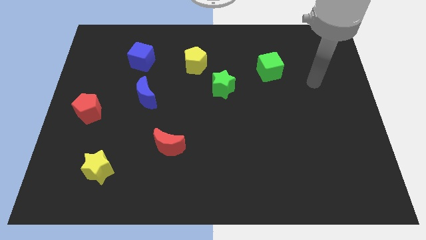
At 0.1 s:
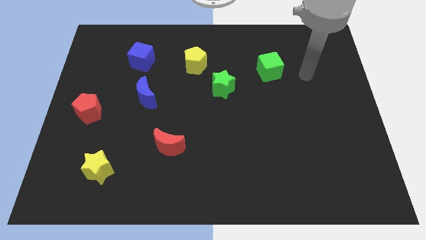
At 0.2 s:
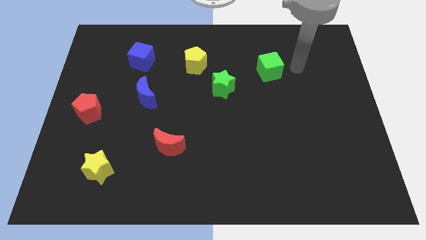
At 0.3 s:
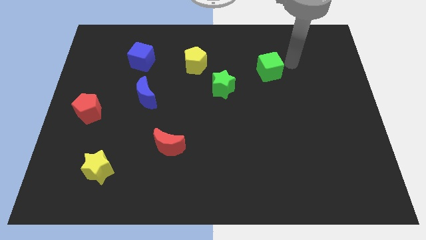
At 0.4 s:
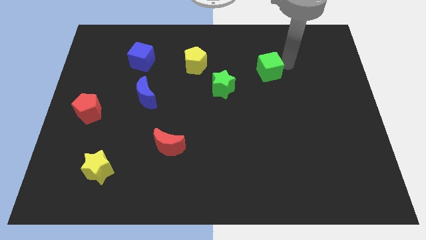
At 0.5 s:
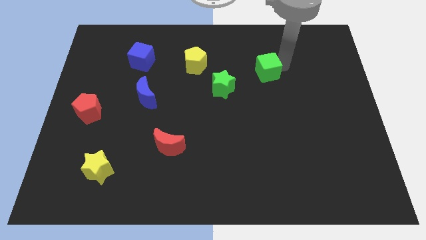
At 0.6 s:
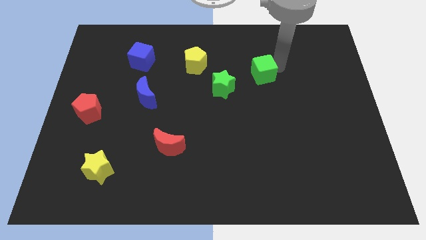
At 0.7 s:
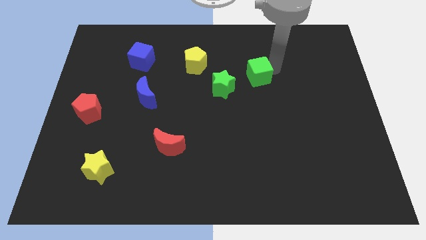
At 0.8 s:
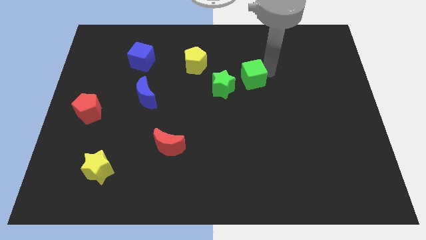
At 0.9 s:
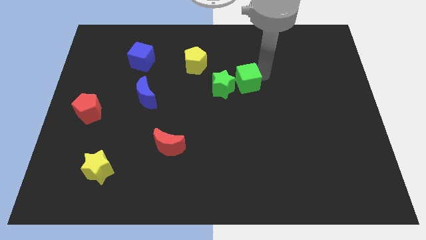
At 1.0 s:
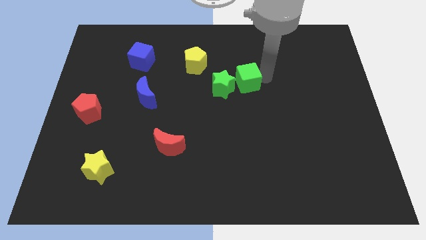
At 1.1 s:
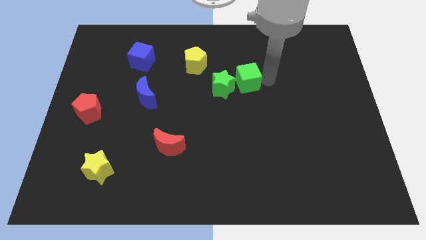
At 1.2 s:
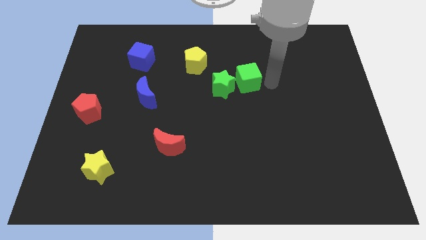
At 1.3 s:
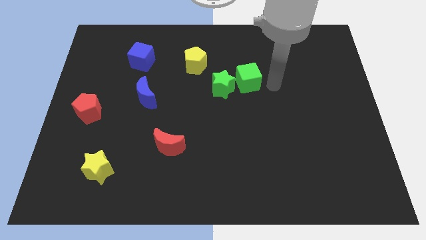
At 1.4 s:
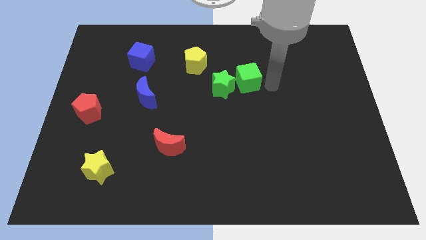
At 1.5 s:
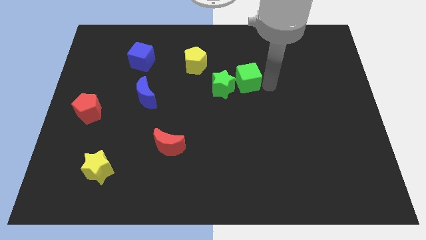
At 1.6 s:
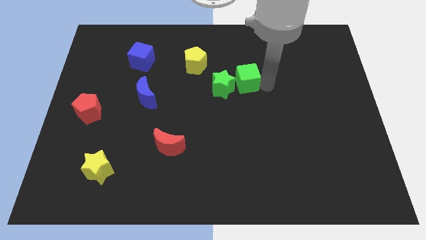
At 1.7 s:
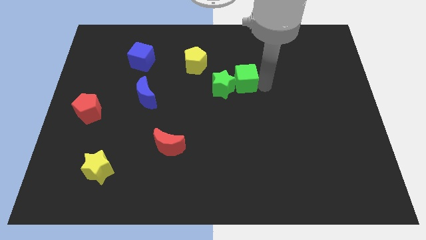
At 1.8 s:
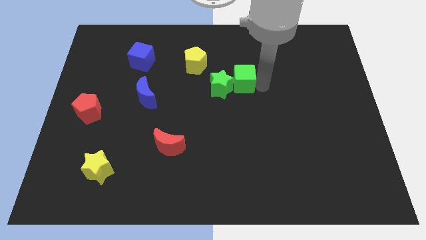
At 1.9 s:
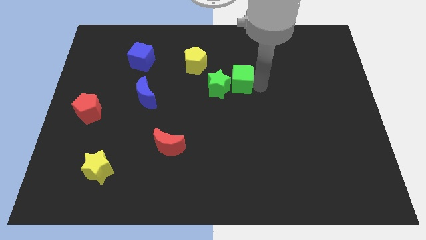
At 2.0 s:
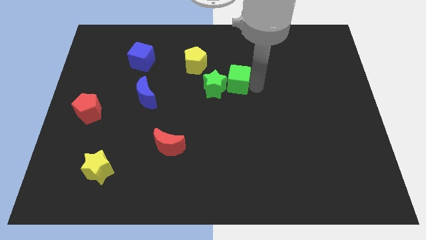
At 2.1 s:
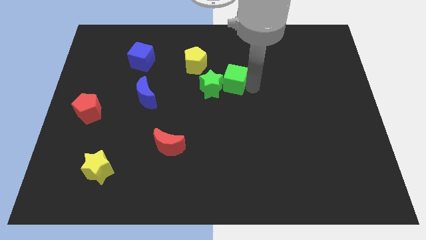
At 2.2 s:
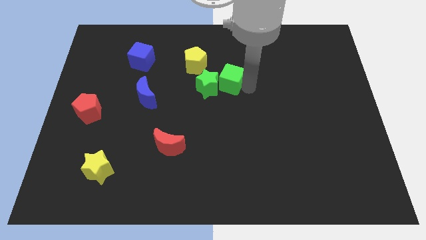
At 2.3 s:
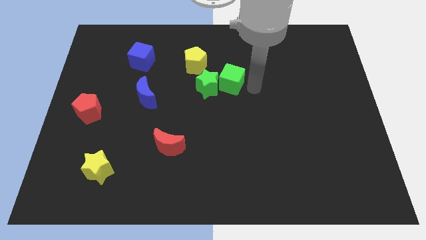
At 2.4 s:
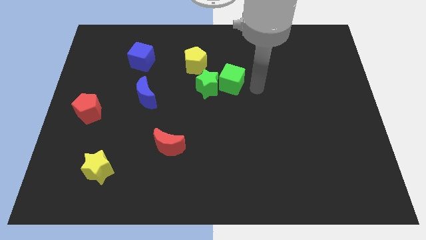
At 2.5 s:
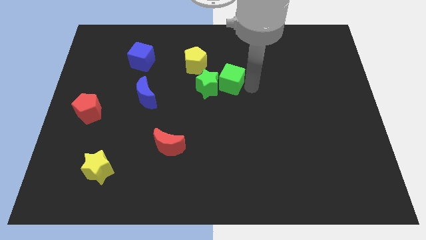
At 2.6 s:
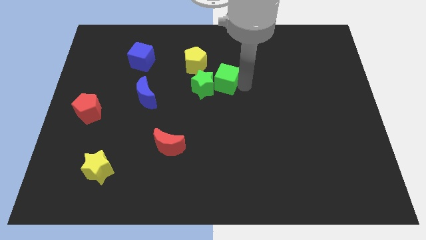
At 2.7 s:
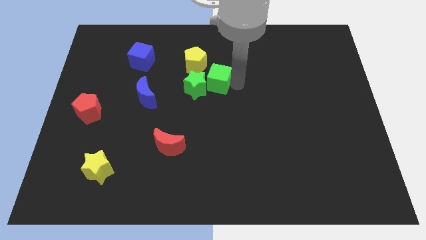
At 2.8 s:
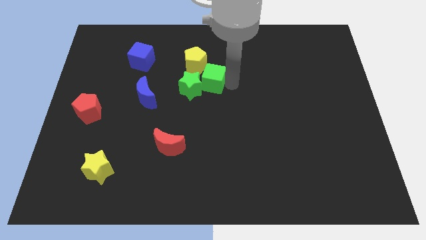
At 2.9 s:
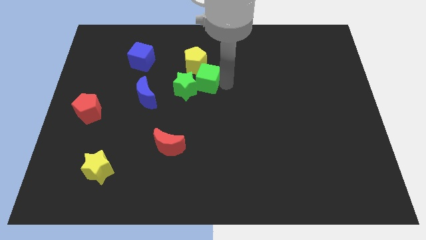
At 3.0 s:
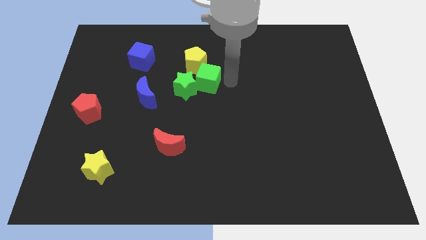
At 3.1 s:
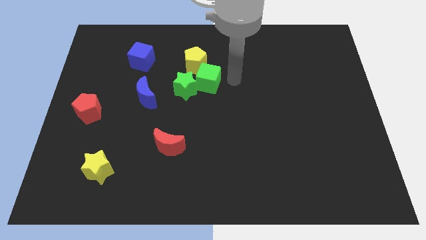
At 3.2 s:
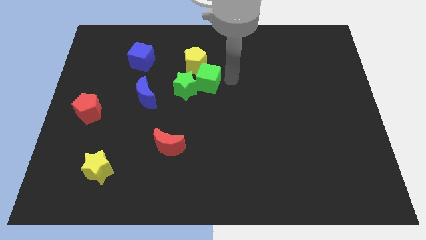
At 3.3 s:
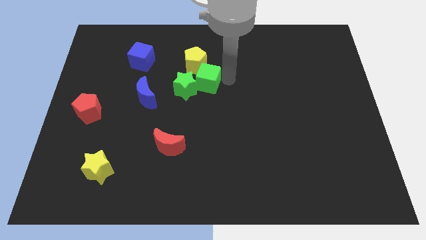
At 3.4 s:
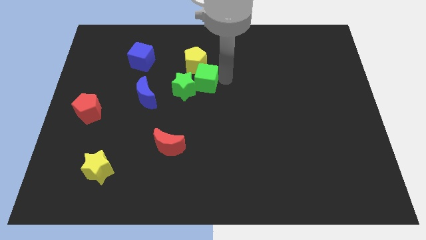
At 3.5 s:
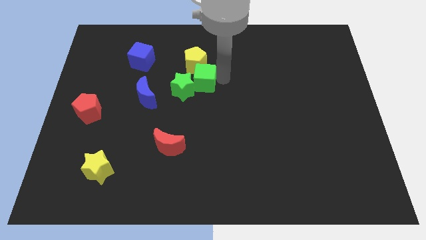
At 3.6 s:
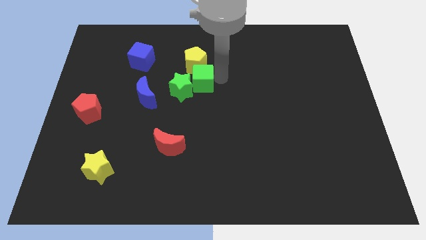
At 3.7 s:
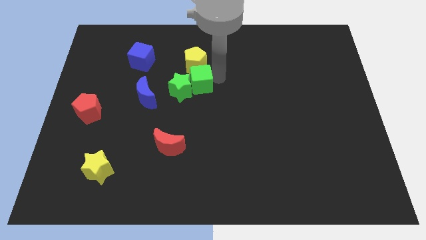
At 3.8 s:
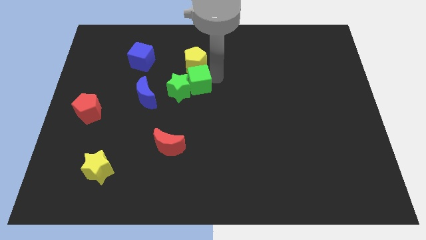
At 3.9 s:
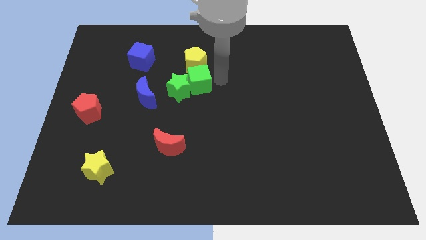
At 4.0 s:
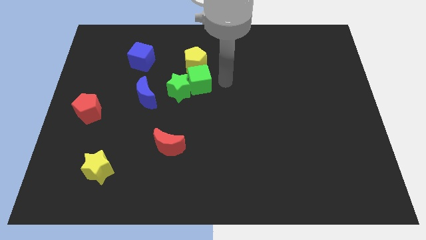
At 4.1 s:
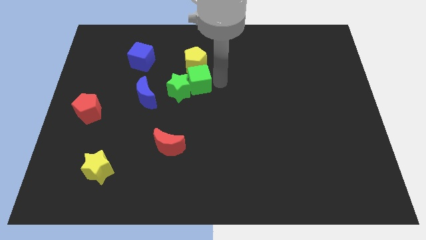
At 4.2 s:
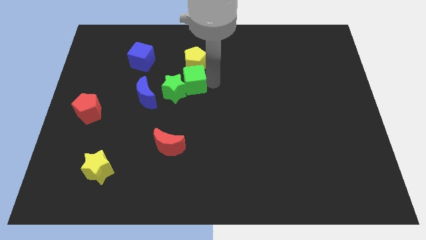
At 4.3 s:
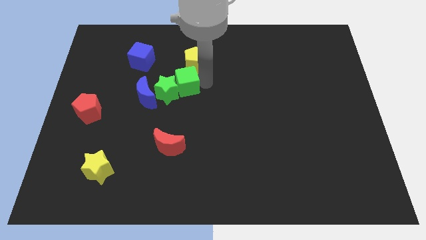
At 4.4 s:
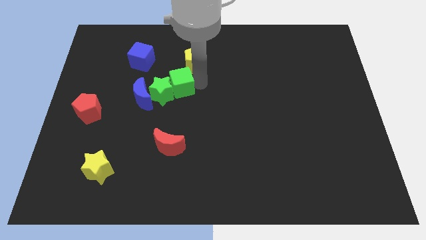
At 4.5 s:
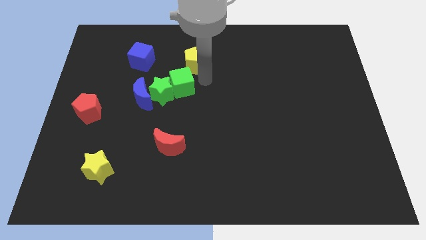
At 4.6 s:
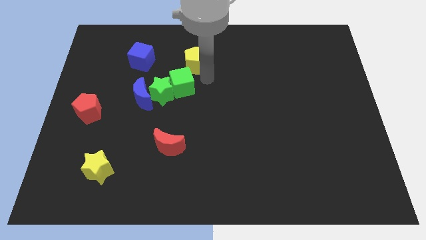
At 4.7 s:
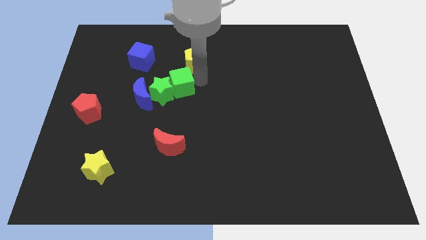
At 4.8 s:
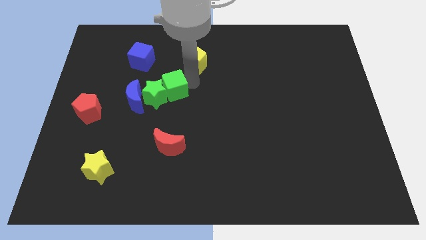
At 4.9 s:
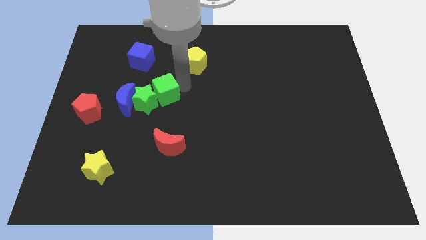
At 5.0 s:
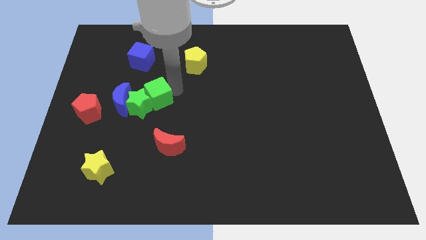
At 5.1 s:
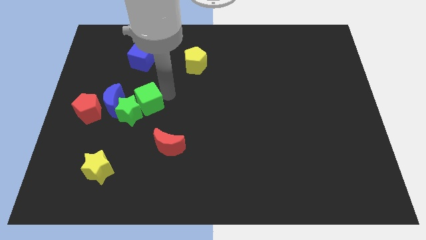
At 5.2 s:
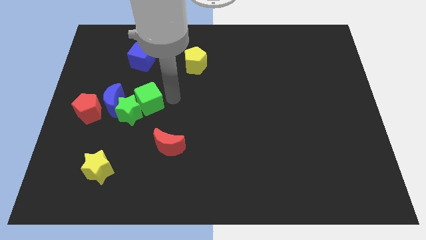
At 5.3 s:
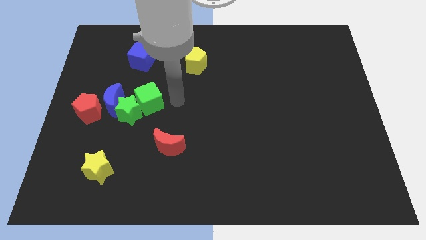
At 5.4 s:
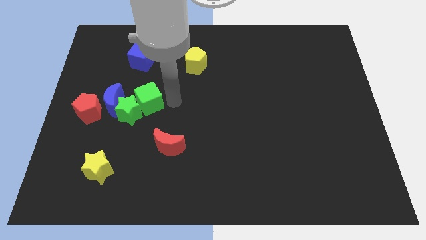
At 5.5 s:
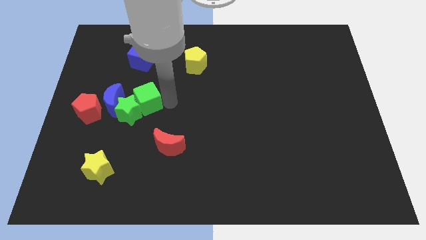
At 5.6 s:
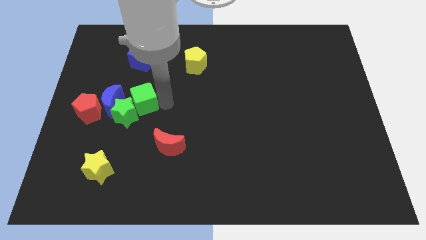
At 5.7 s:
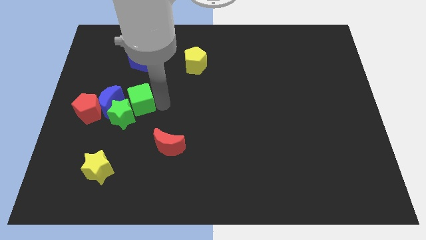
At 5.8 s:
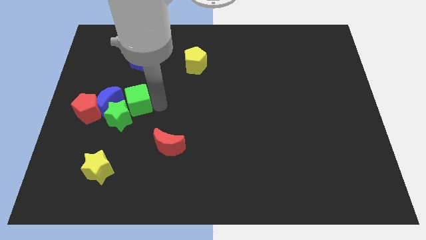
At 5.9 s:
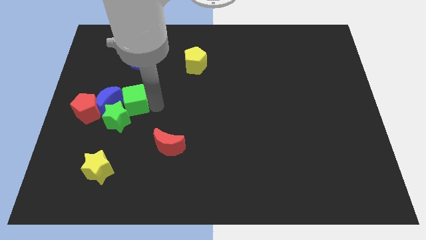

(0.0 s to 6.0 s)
push the green cube to the blue moon
